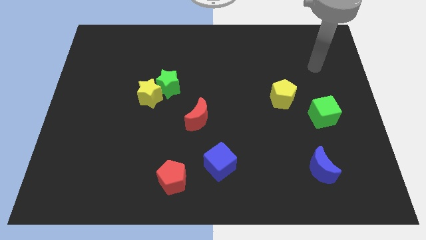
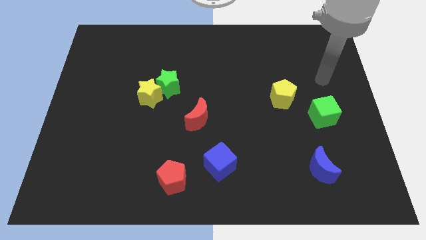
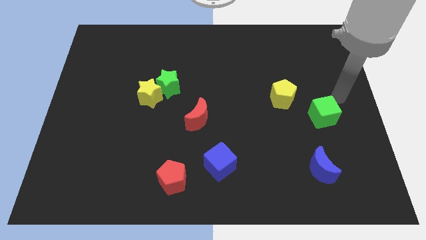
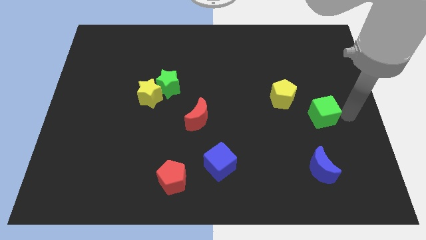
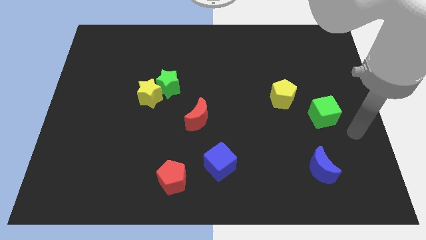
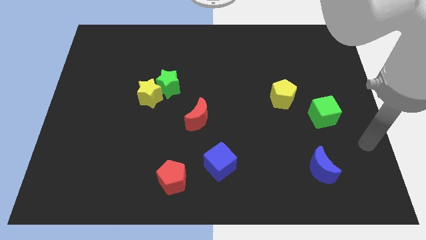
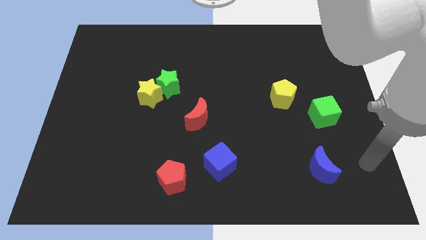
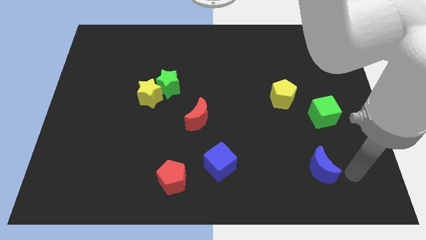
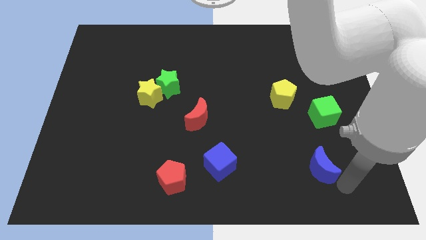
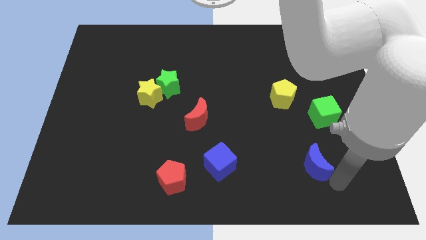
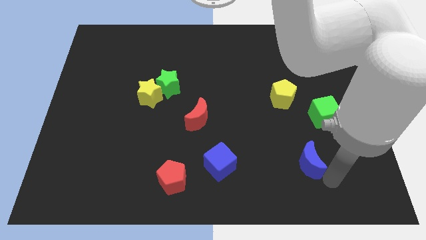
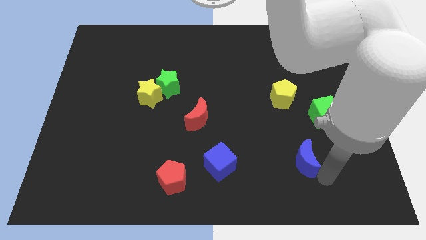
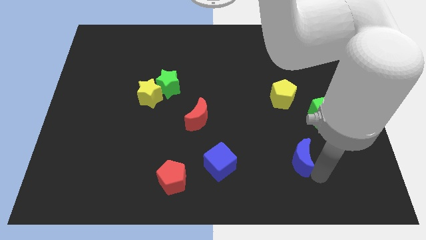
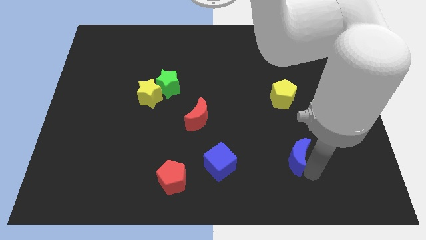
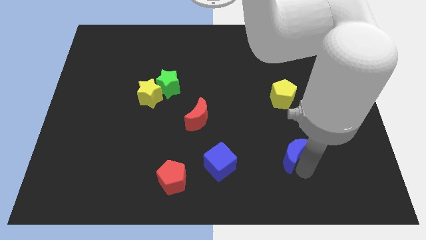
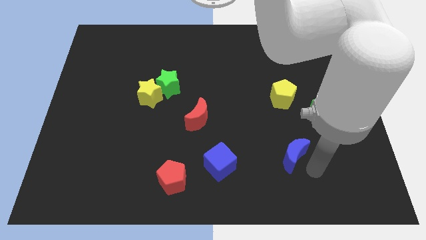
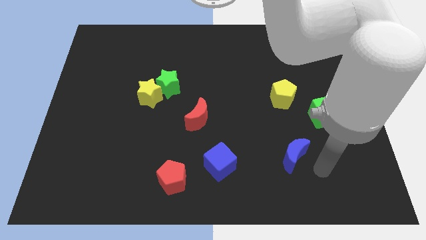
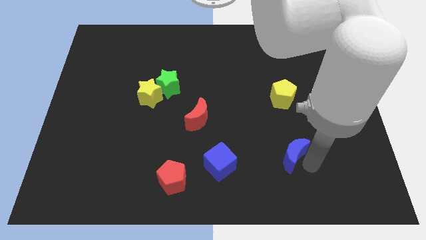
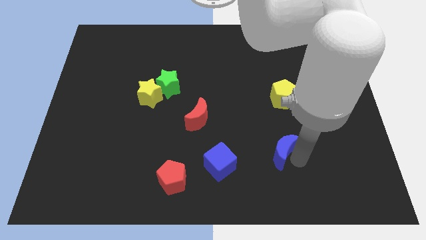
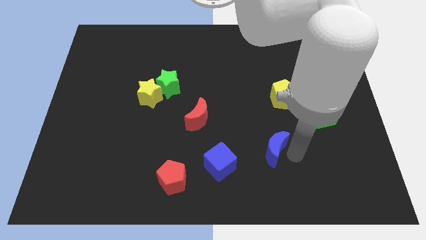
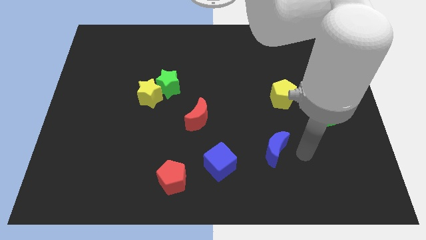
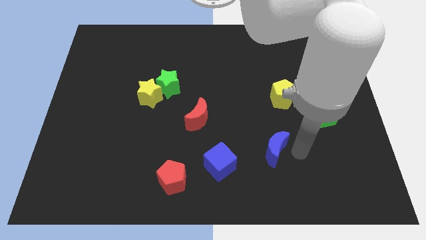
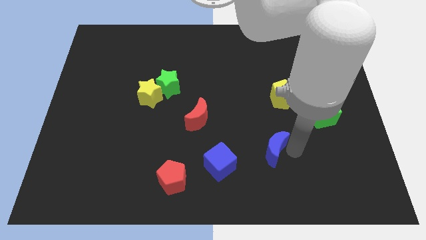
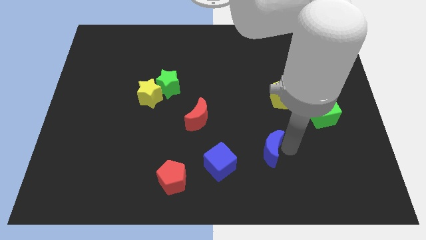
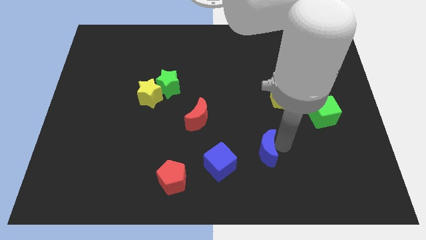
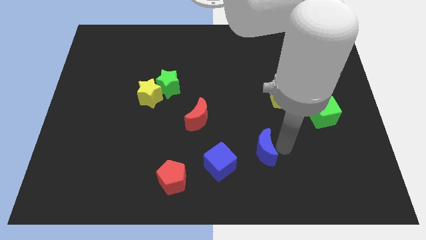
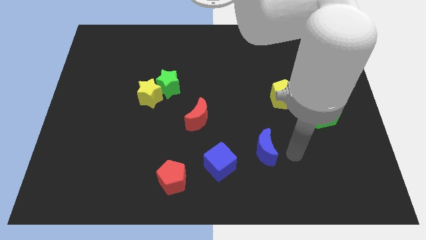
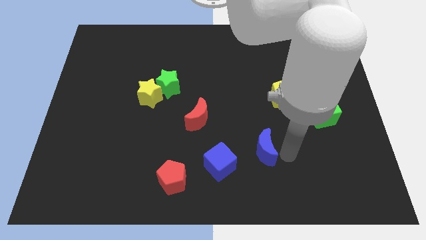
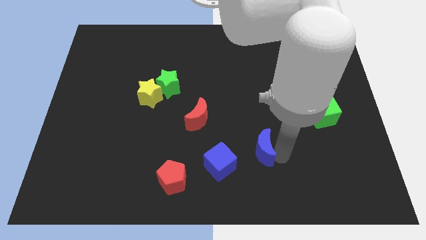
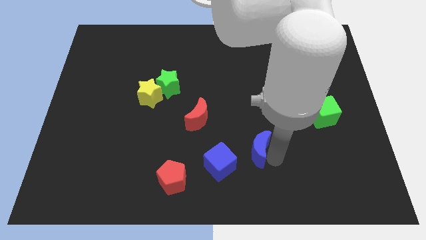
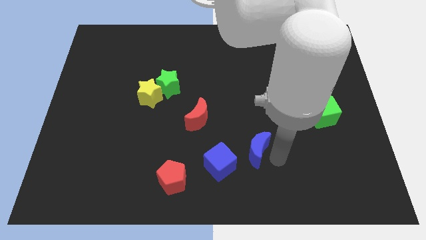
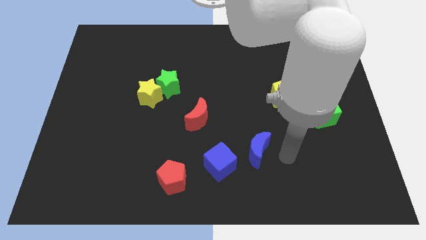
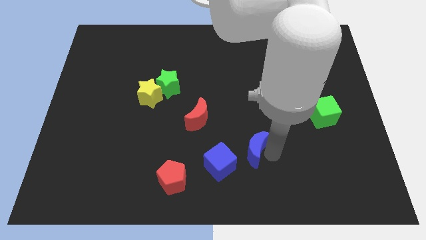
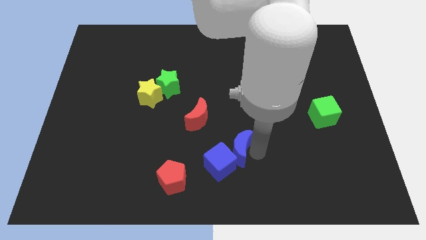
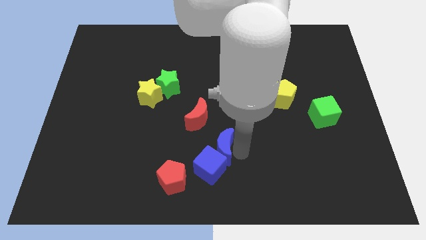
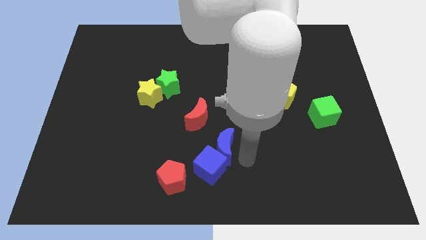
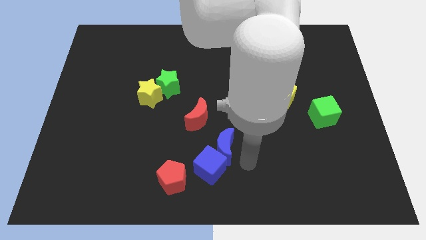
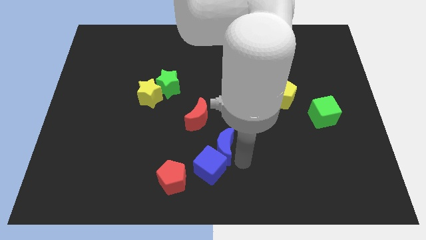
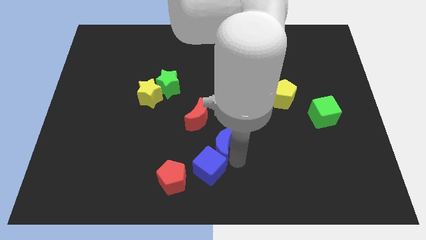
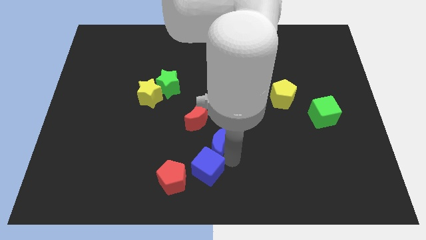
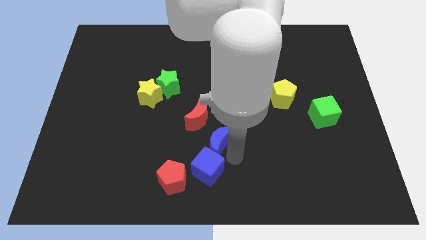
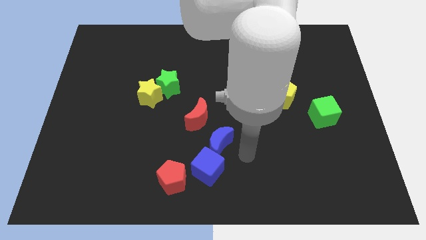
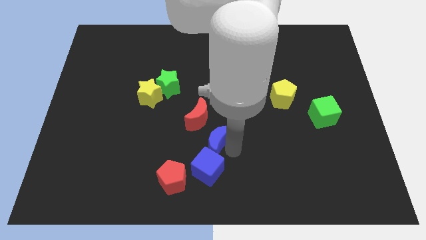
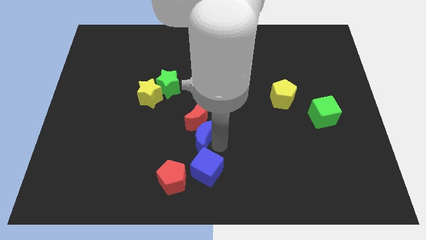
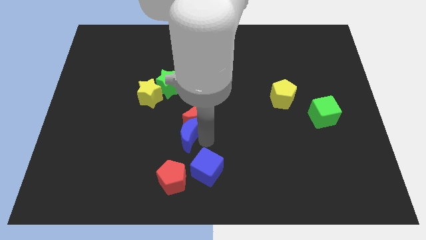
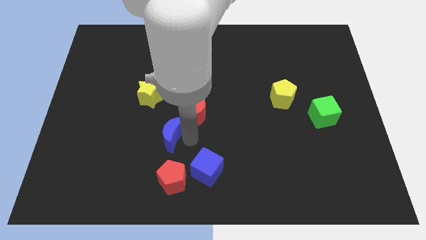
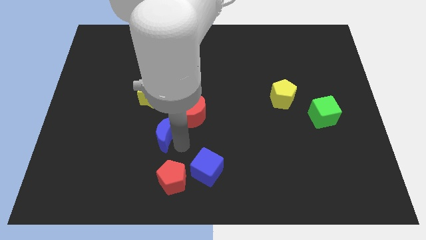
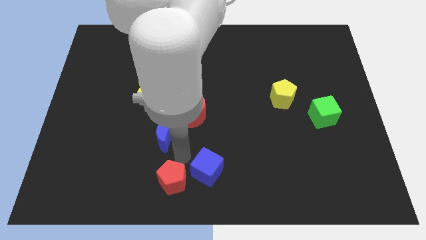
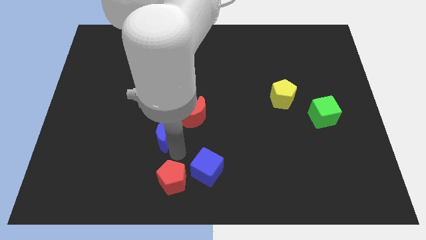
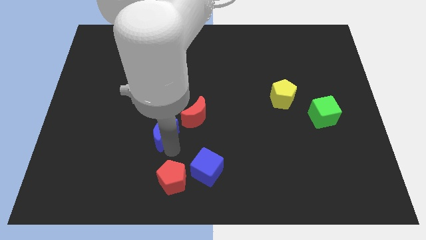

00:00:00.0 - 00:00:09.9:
put the blue moon just left of the red moon

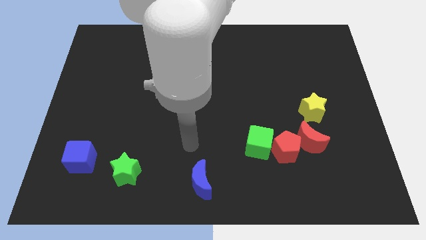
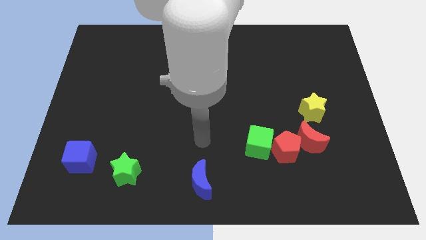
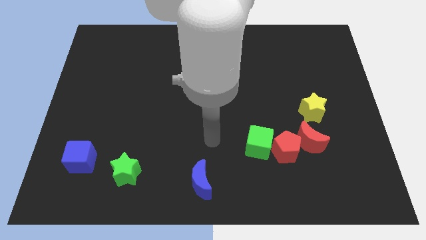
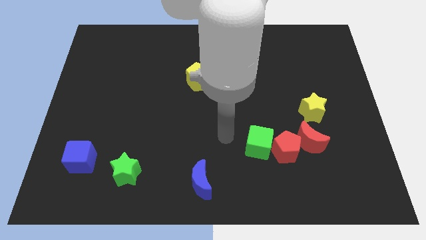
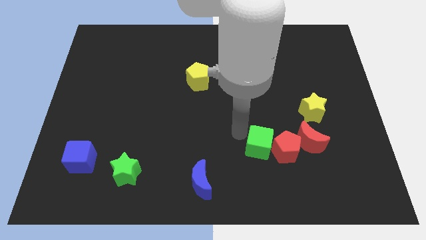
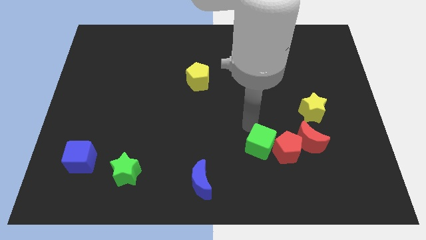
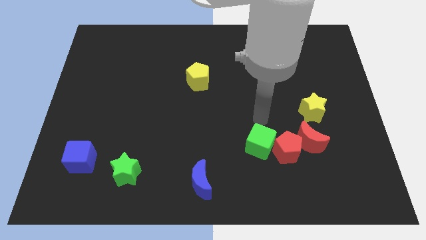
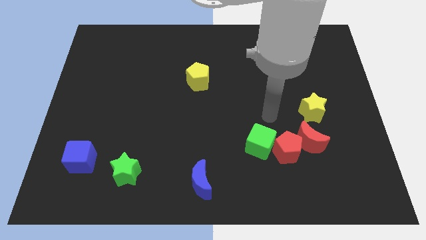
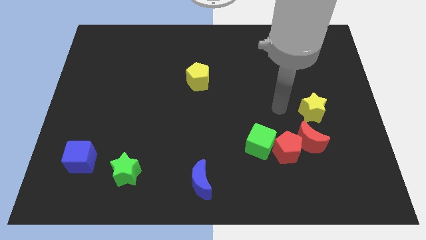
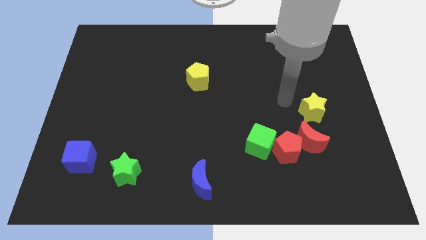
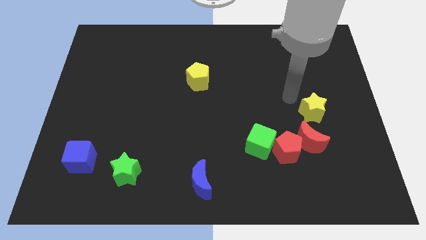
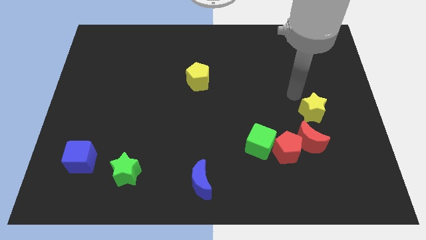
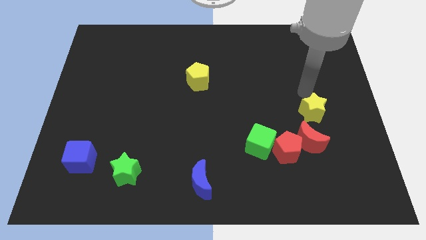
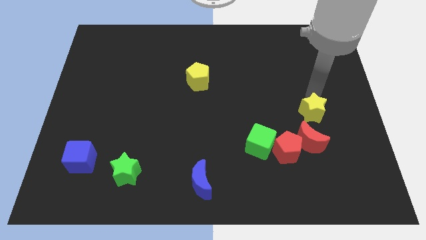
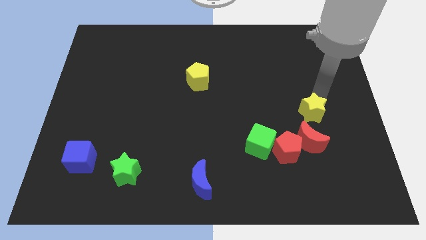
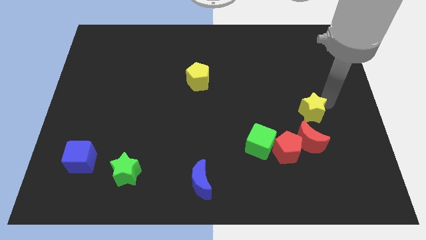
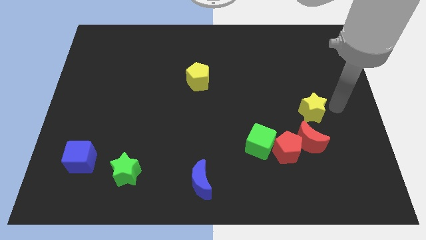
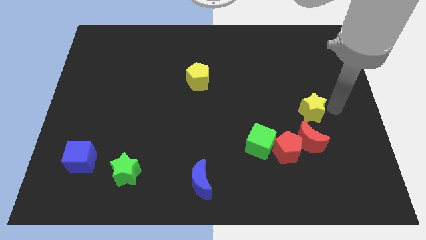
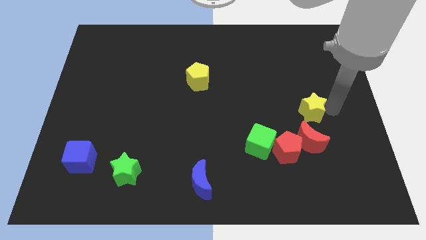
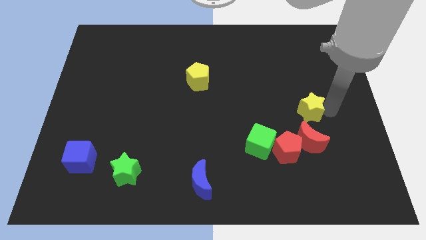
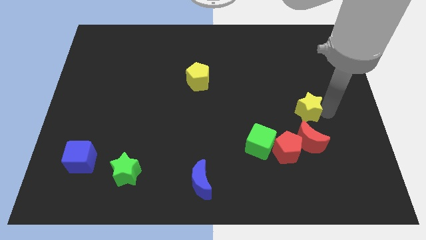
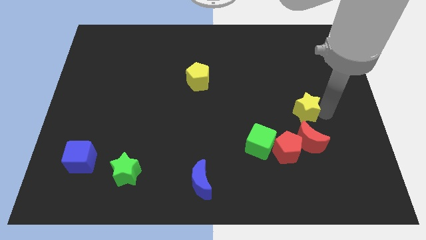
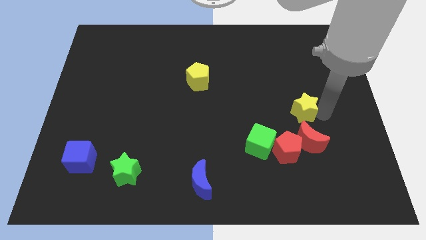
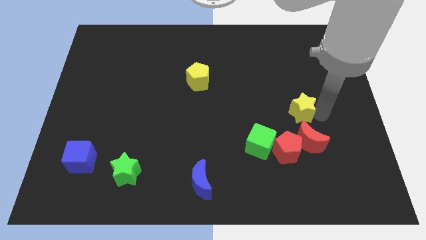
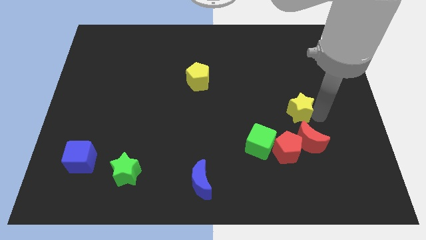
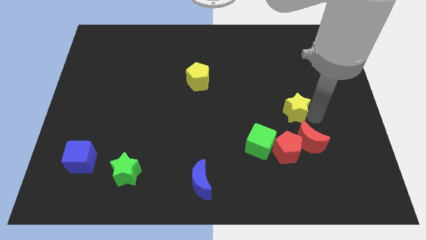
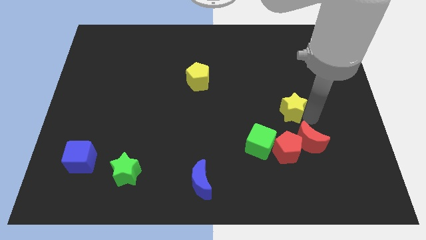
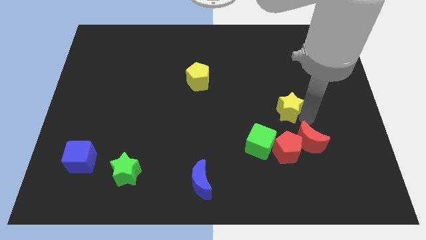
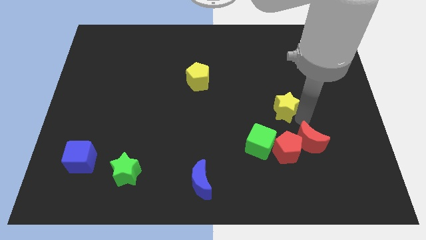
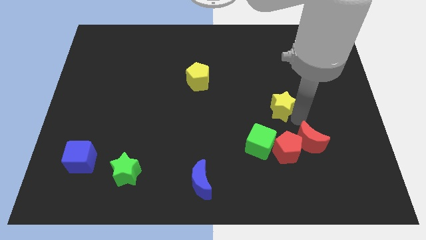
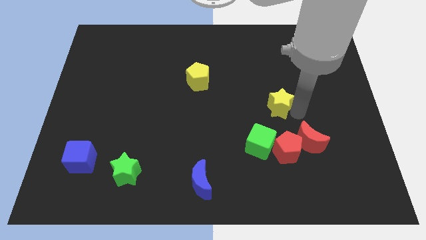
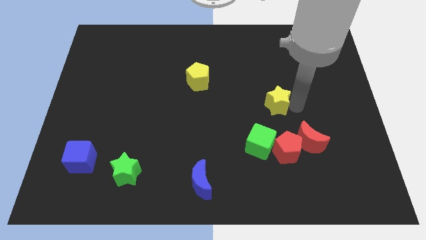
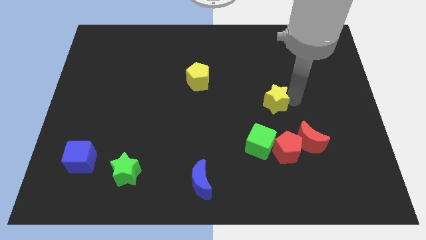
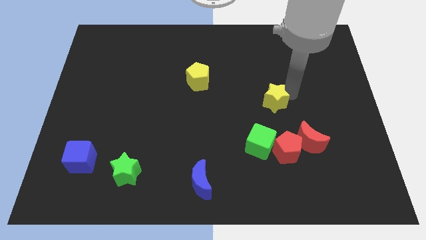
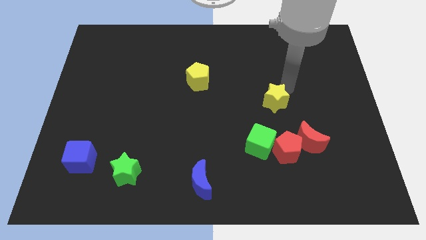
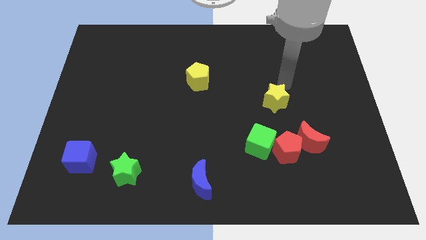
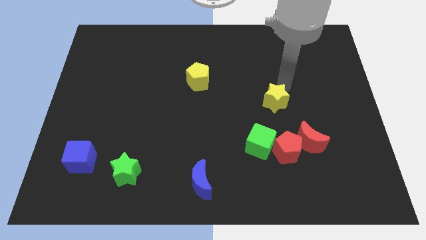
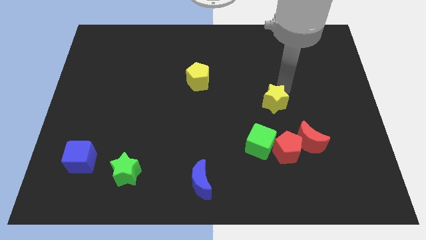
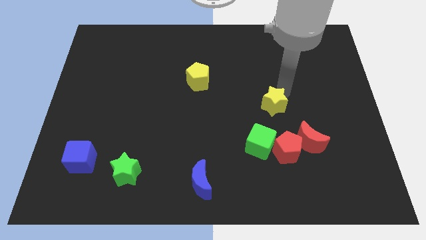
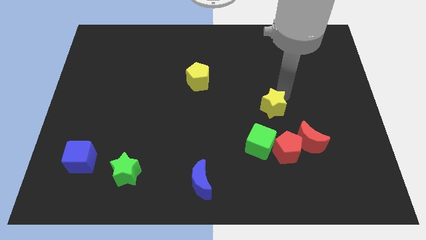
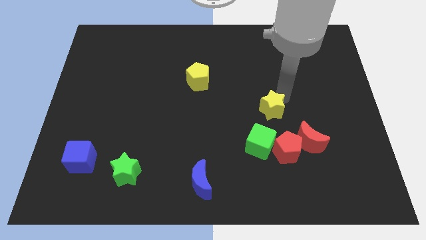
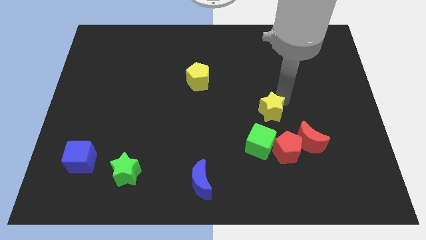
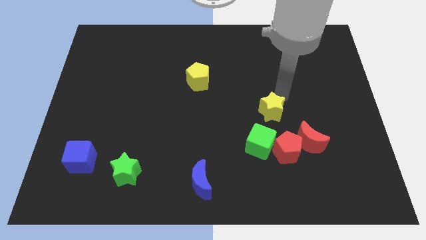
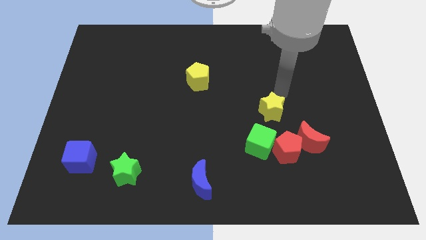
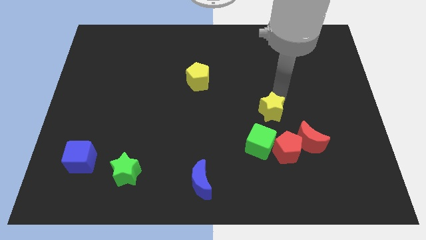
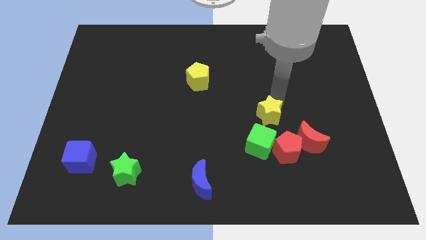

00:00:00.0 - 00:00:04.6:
move the yellow star to the top left of the red pentagon
